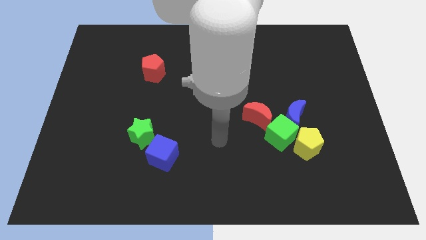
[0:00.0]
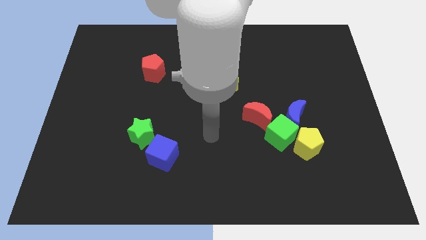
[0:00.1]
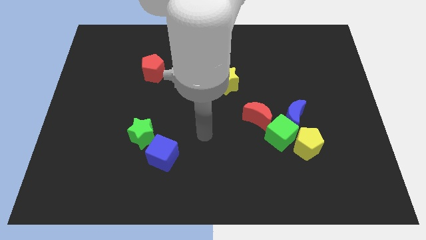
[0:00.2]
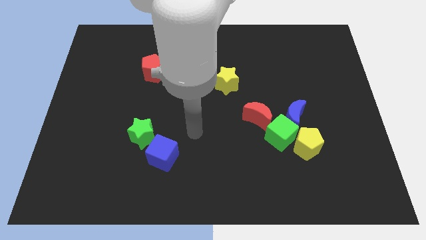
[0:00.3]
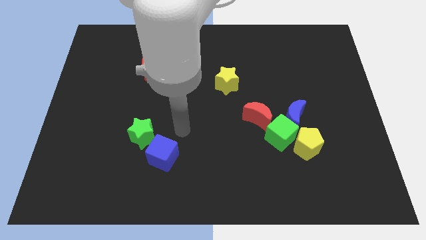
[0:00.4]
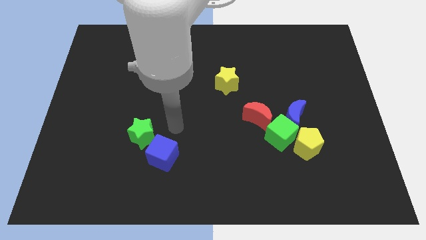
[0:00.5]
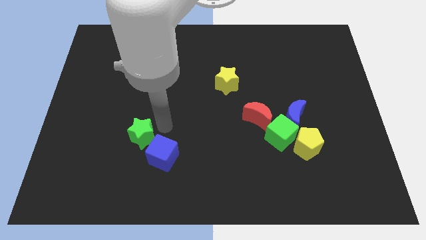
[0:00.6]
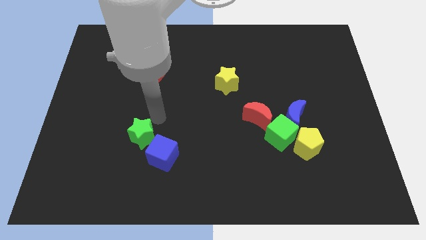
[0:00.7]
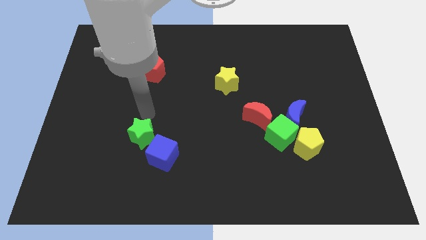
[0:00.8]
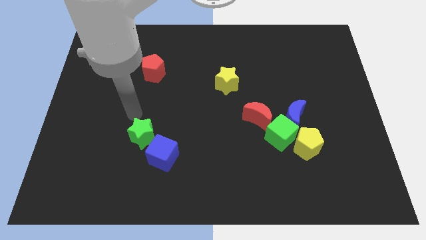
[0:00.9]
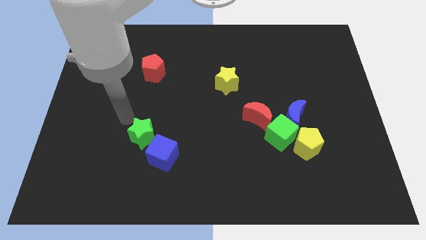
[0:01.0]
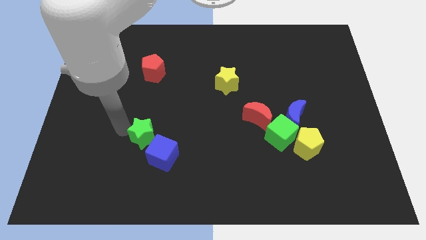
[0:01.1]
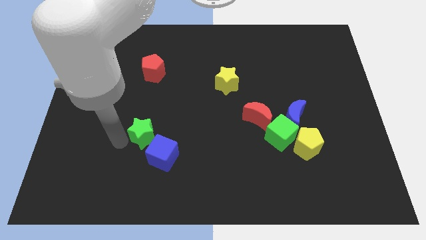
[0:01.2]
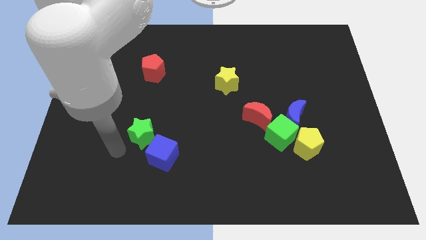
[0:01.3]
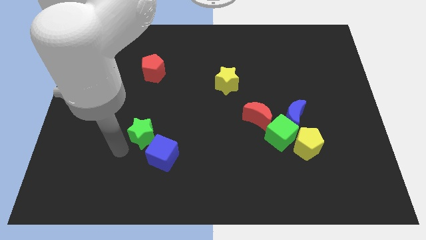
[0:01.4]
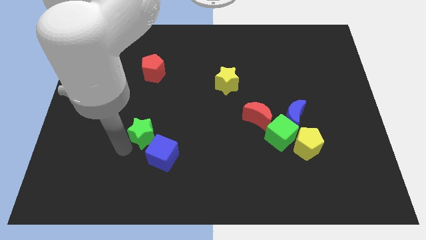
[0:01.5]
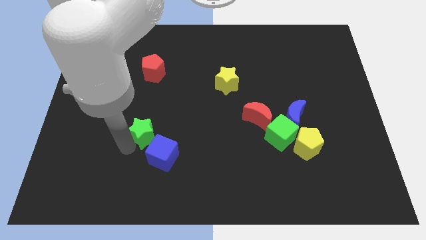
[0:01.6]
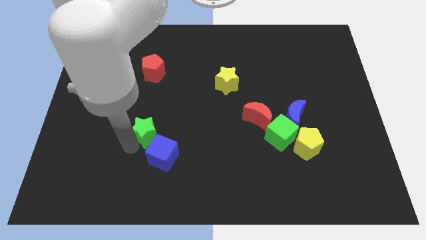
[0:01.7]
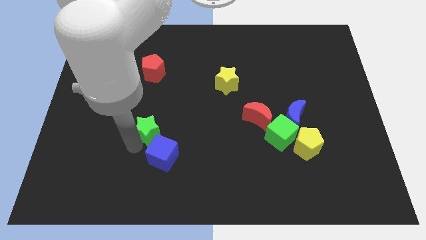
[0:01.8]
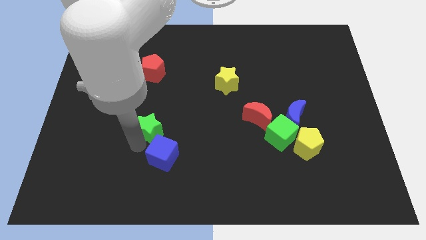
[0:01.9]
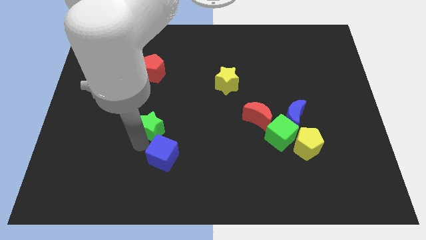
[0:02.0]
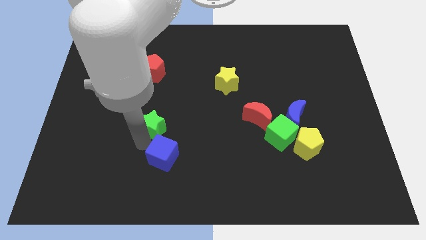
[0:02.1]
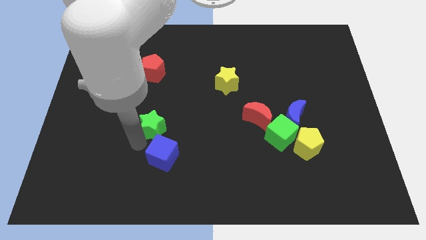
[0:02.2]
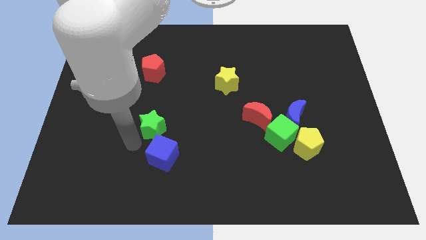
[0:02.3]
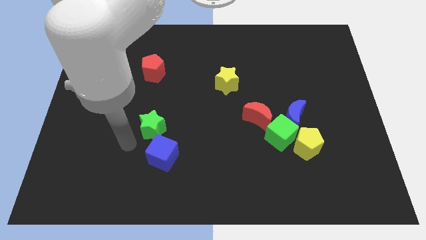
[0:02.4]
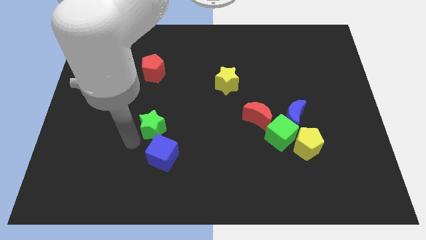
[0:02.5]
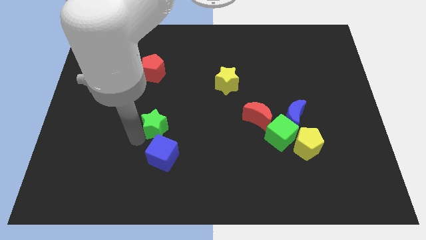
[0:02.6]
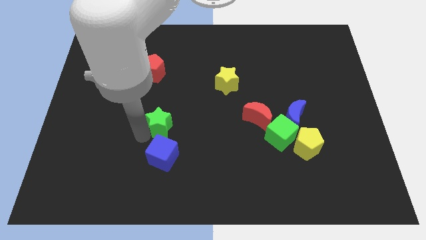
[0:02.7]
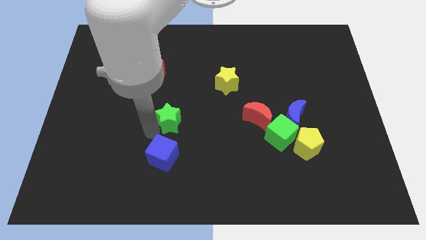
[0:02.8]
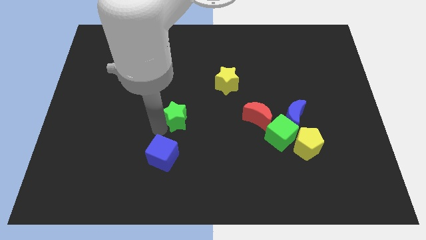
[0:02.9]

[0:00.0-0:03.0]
move the green star upwards and right a little bit

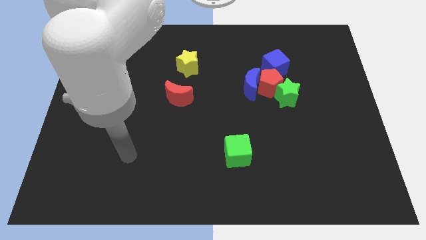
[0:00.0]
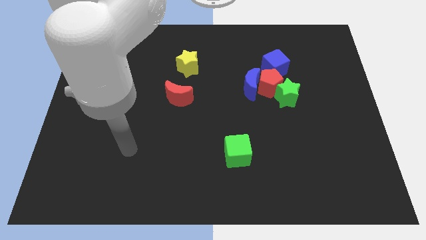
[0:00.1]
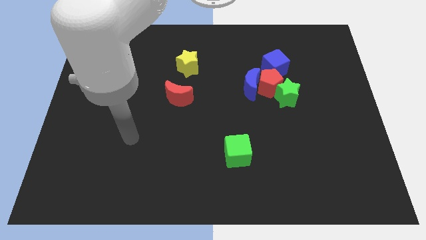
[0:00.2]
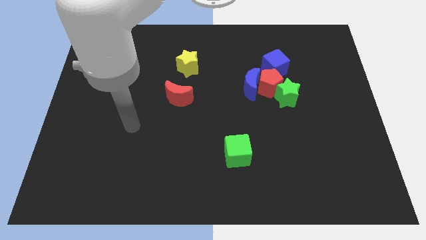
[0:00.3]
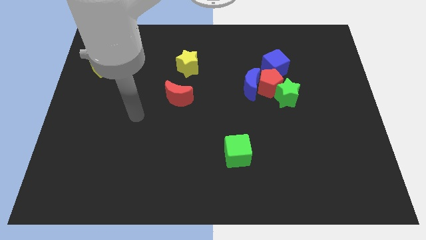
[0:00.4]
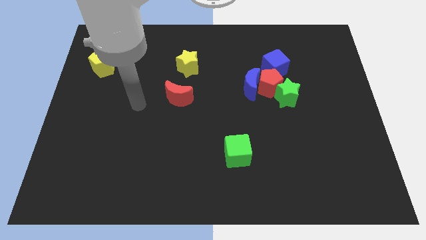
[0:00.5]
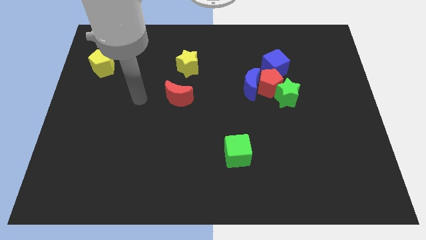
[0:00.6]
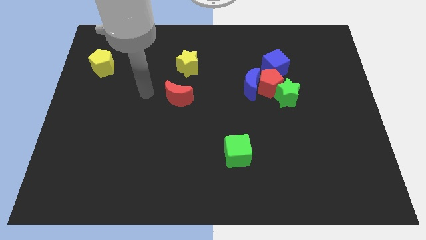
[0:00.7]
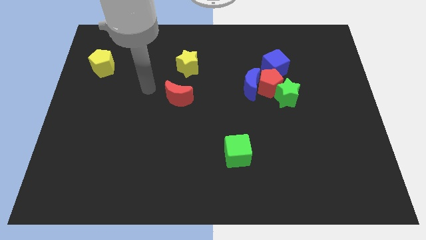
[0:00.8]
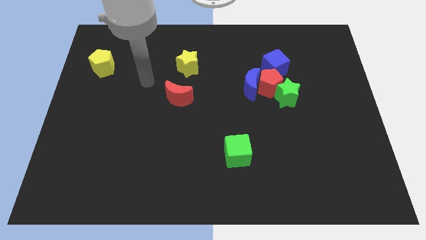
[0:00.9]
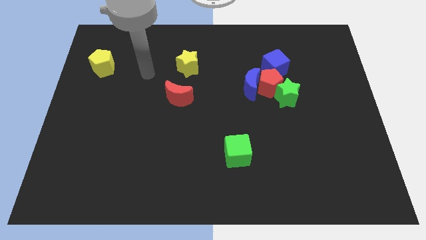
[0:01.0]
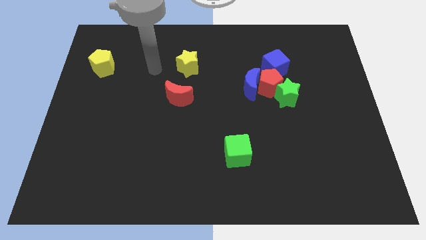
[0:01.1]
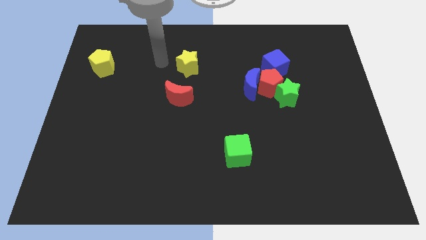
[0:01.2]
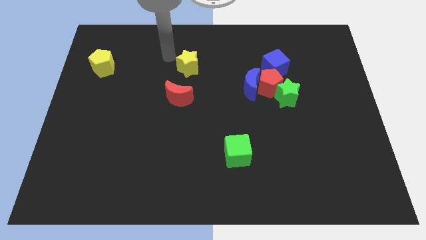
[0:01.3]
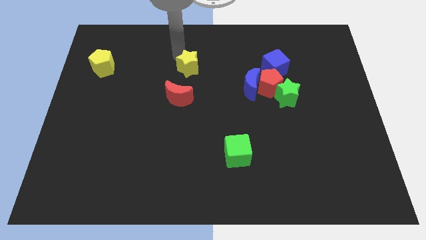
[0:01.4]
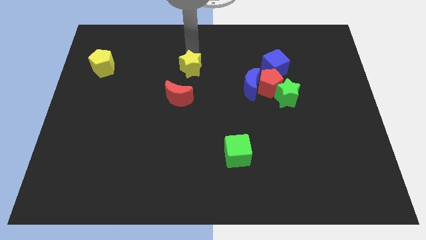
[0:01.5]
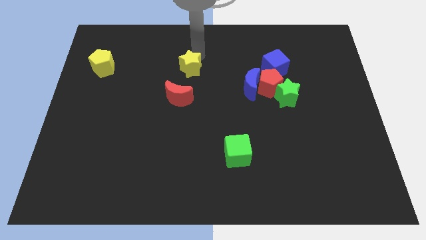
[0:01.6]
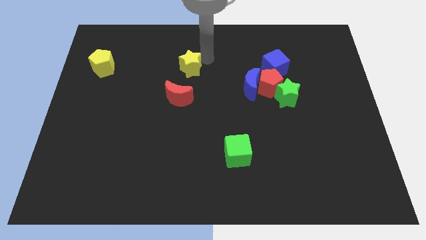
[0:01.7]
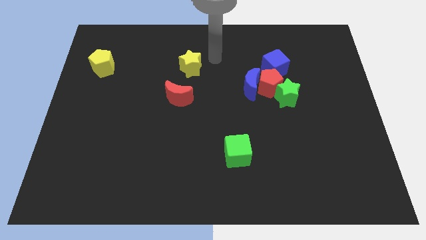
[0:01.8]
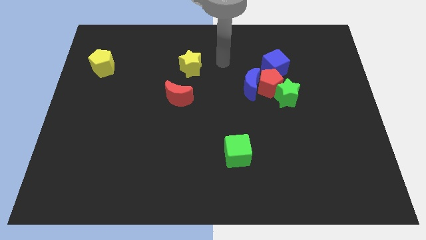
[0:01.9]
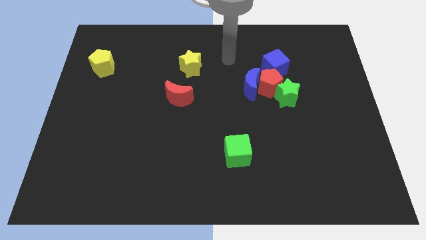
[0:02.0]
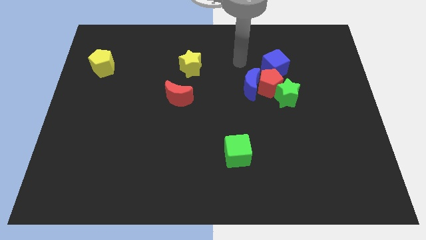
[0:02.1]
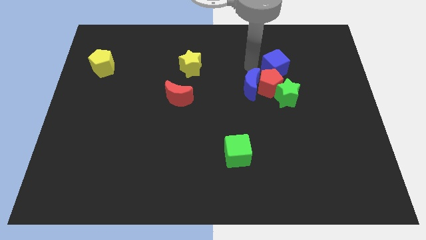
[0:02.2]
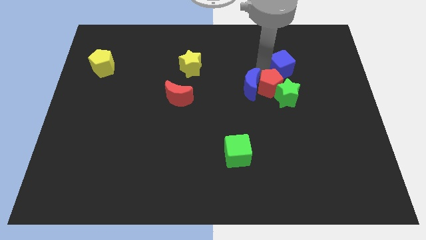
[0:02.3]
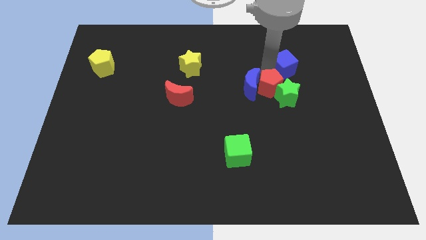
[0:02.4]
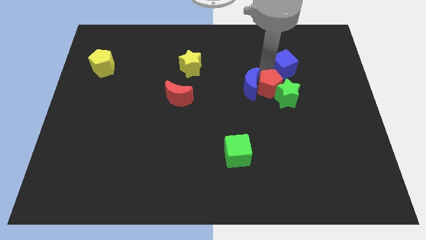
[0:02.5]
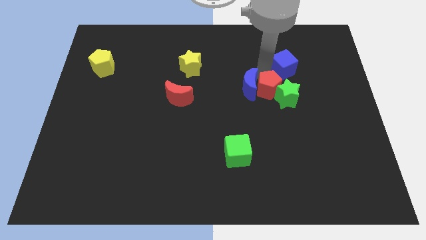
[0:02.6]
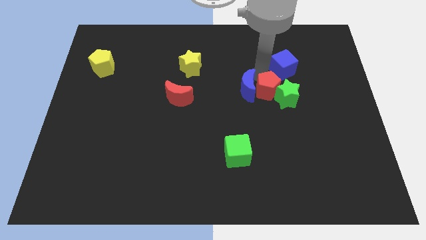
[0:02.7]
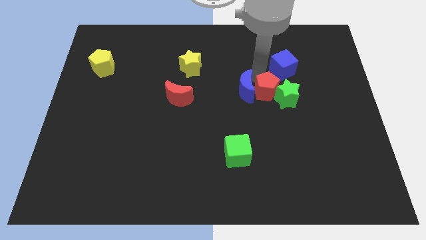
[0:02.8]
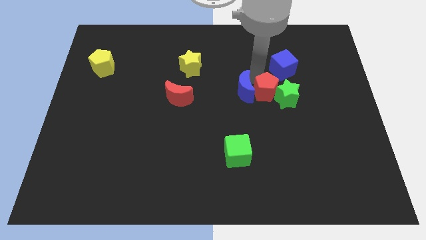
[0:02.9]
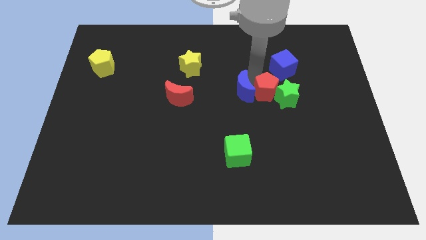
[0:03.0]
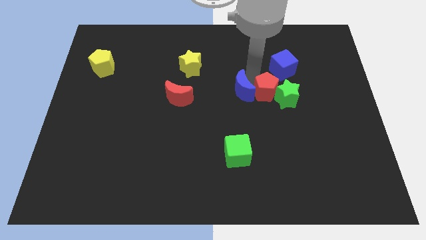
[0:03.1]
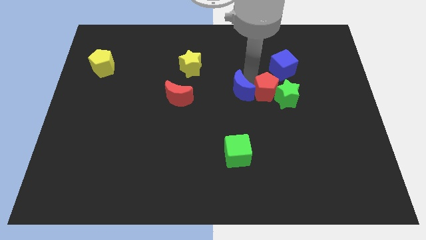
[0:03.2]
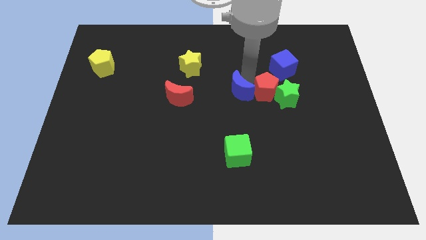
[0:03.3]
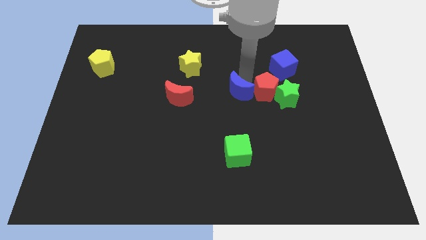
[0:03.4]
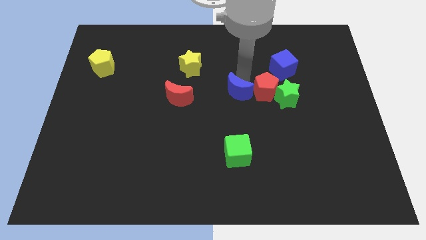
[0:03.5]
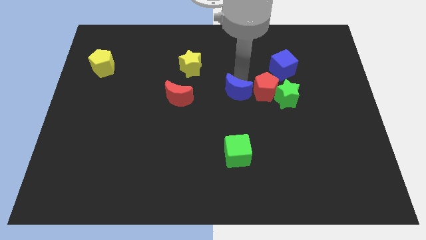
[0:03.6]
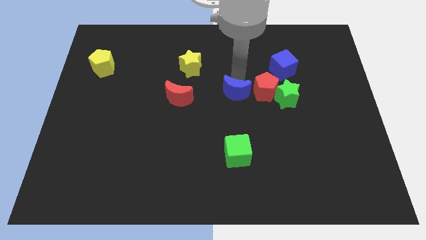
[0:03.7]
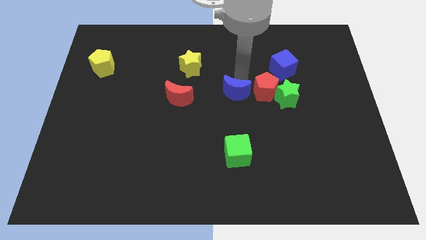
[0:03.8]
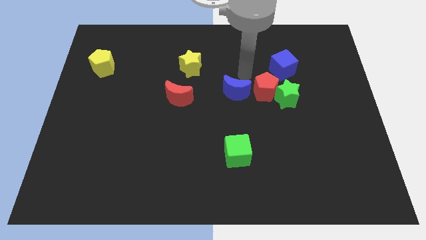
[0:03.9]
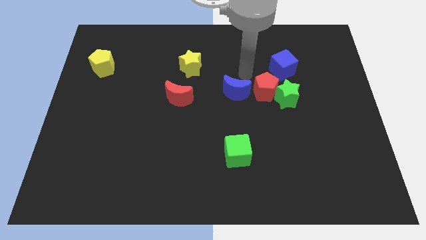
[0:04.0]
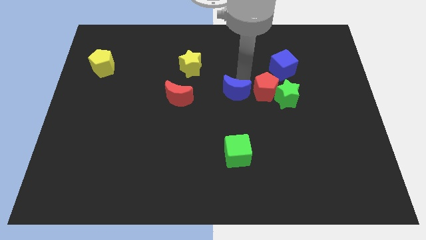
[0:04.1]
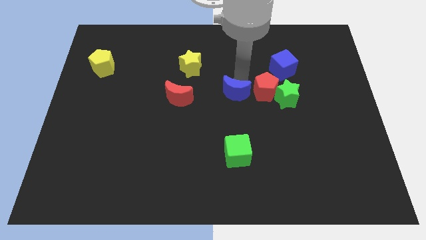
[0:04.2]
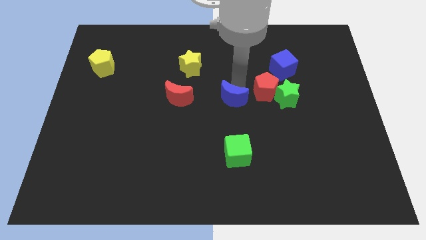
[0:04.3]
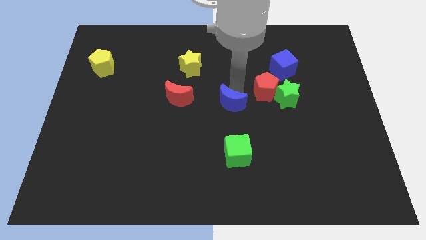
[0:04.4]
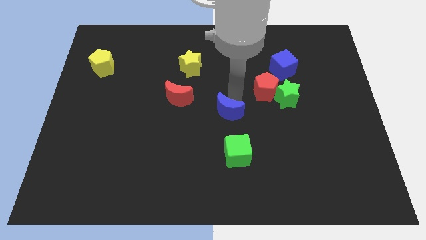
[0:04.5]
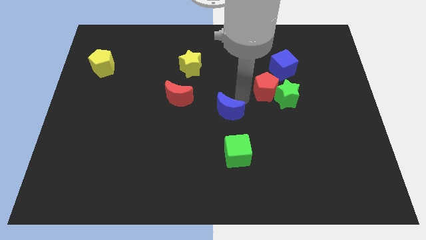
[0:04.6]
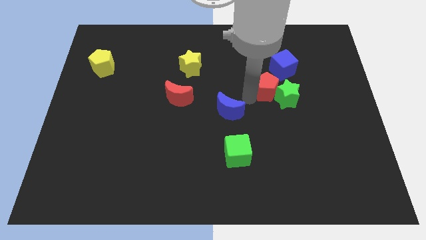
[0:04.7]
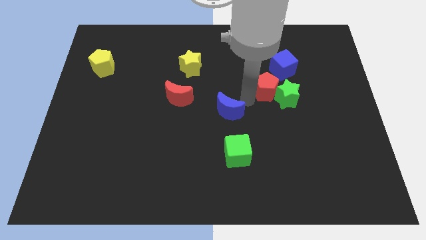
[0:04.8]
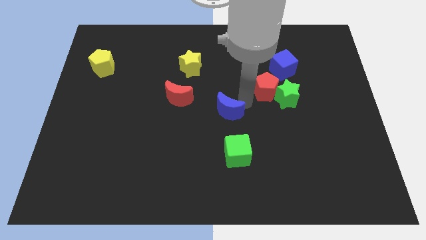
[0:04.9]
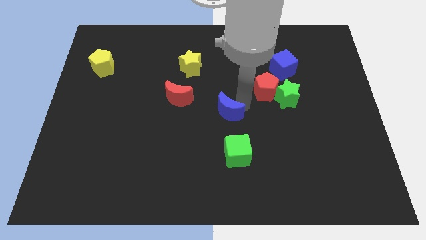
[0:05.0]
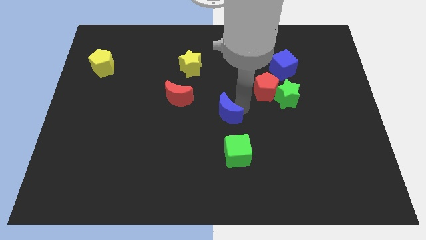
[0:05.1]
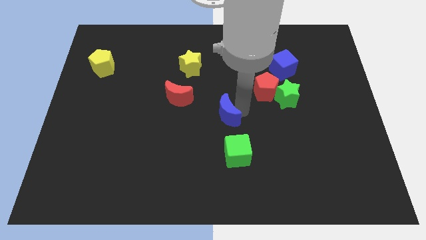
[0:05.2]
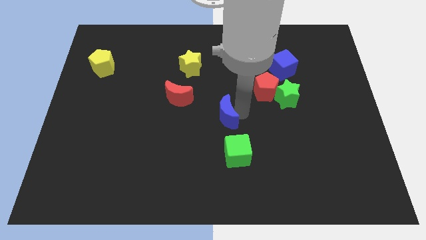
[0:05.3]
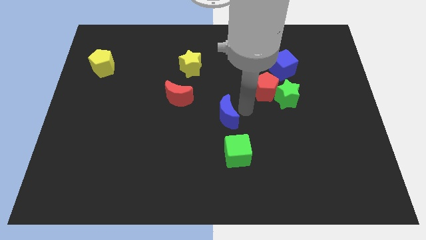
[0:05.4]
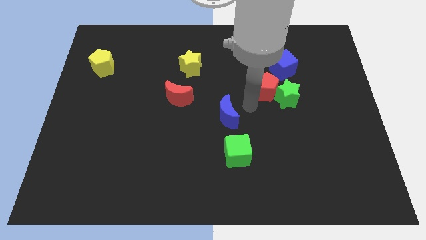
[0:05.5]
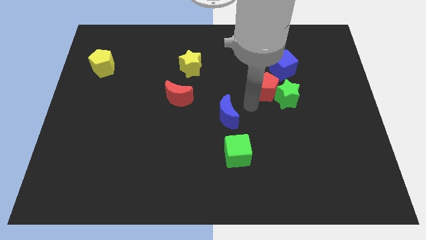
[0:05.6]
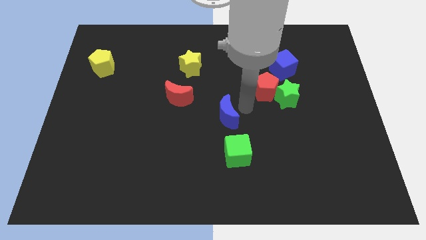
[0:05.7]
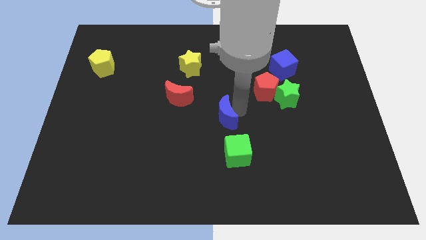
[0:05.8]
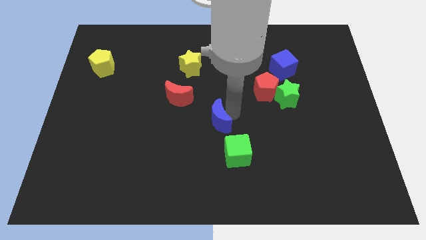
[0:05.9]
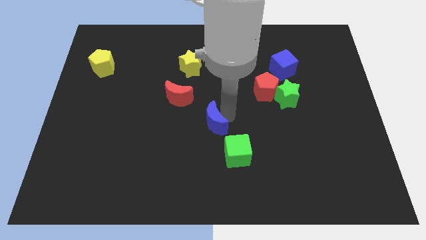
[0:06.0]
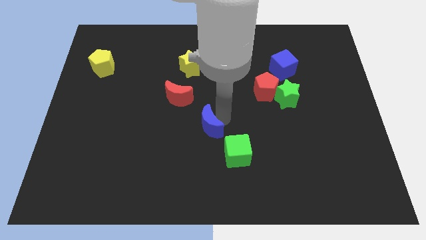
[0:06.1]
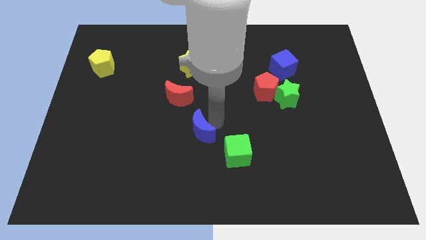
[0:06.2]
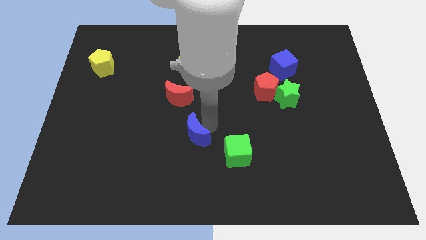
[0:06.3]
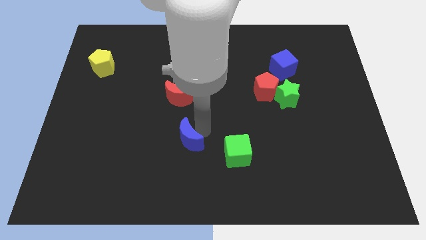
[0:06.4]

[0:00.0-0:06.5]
push the blue moon down and to the left diagonally
